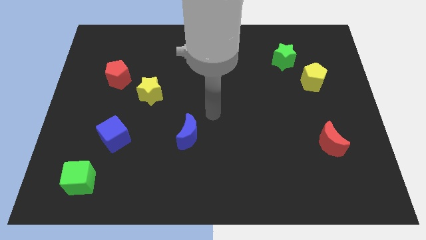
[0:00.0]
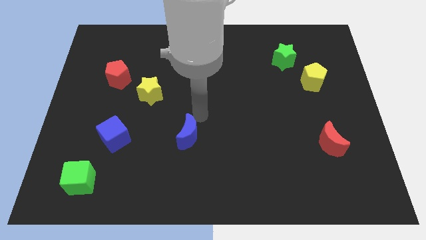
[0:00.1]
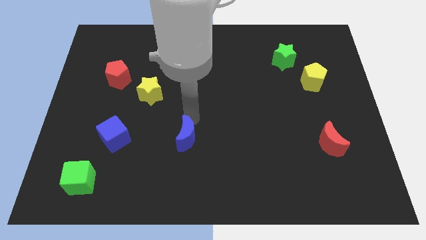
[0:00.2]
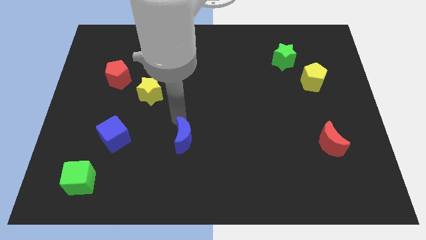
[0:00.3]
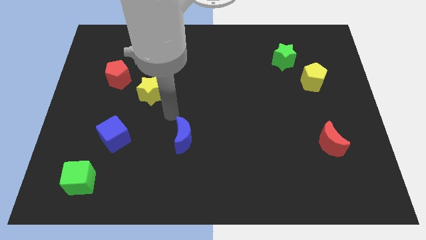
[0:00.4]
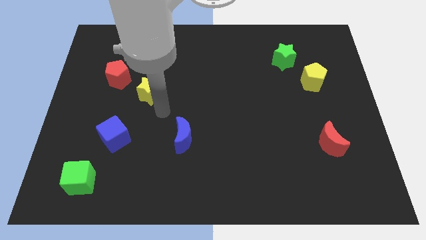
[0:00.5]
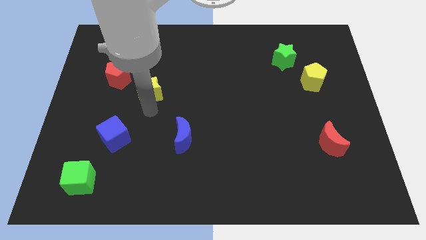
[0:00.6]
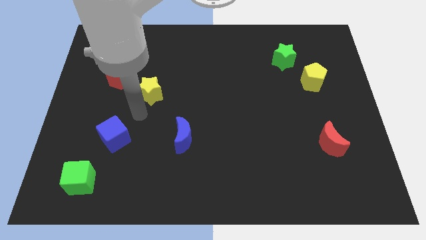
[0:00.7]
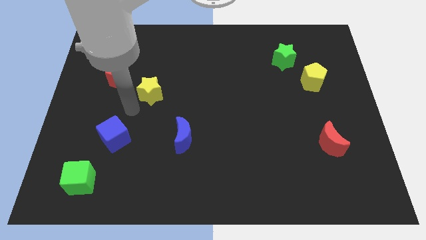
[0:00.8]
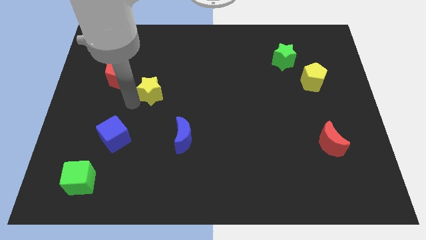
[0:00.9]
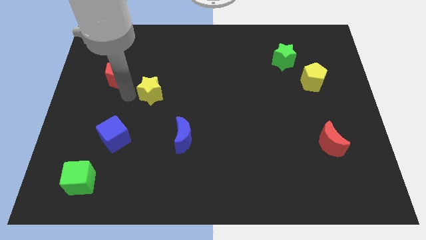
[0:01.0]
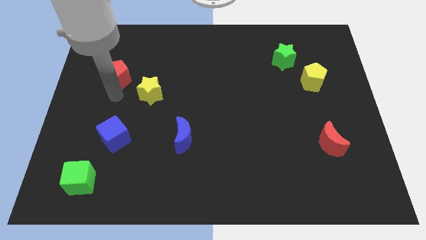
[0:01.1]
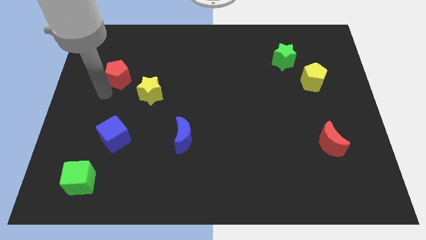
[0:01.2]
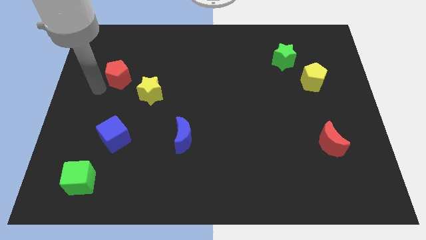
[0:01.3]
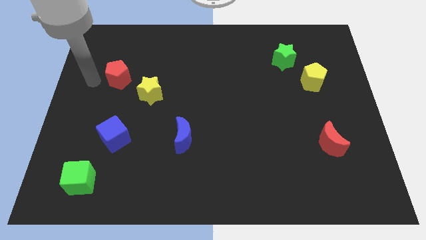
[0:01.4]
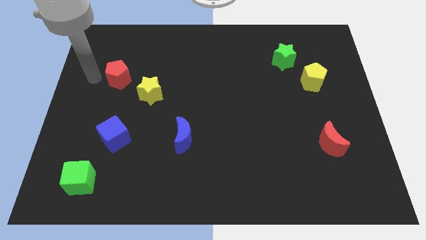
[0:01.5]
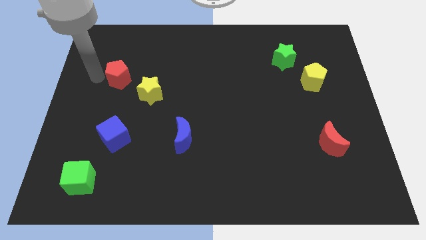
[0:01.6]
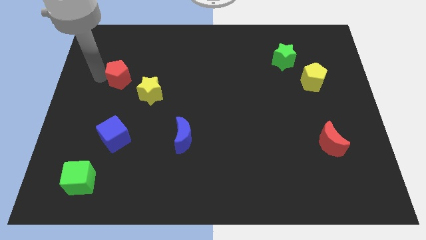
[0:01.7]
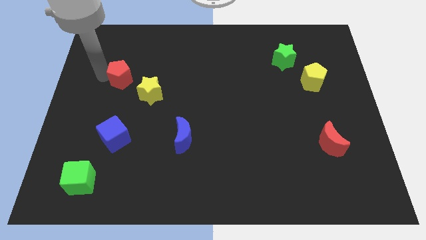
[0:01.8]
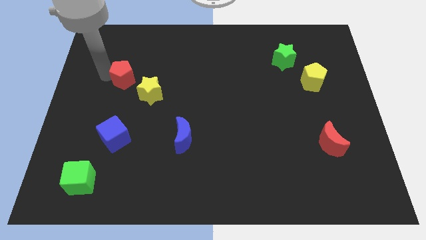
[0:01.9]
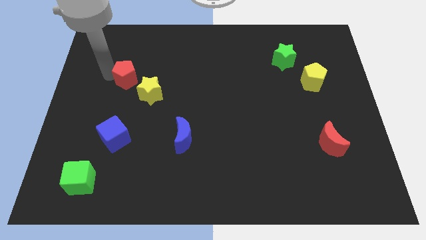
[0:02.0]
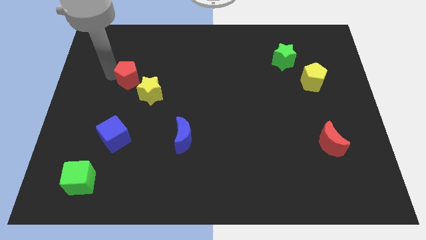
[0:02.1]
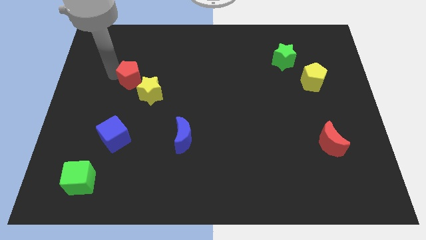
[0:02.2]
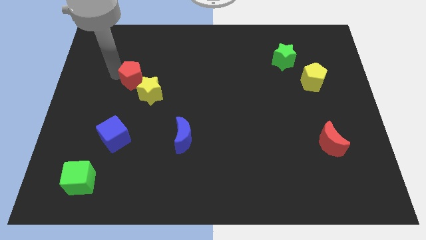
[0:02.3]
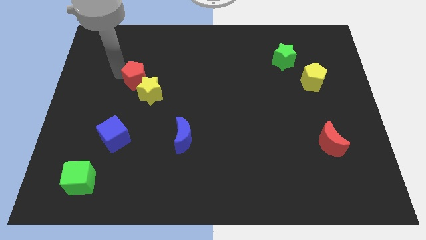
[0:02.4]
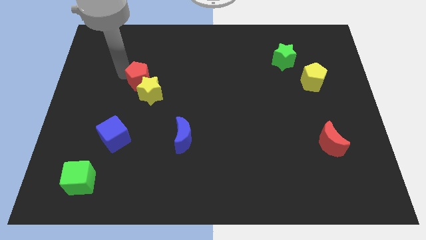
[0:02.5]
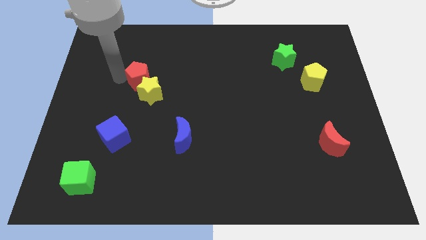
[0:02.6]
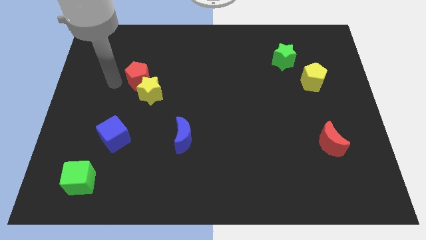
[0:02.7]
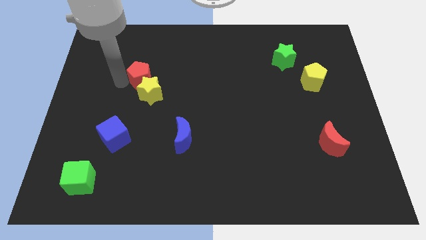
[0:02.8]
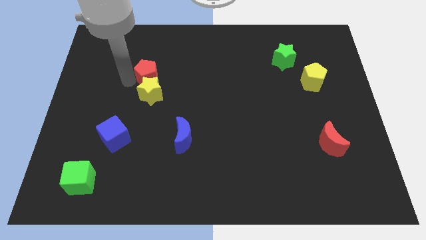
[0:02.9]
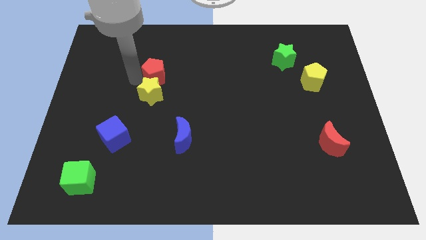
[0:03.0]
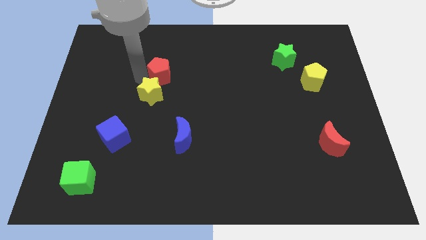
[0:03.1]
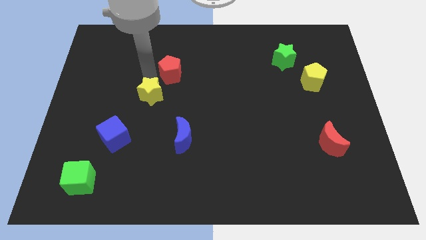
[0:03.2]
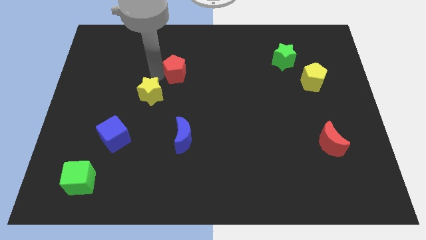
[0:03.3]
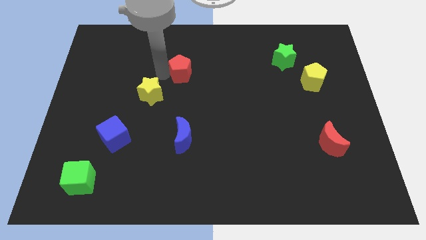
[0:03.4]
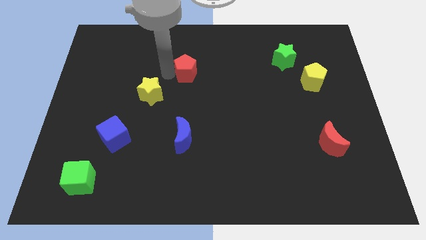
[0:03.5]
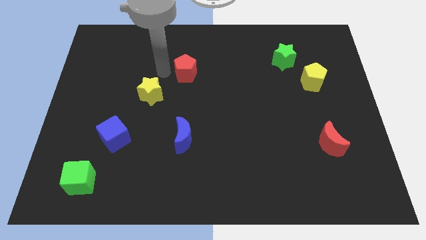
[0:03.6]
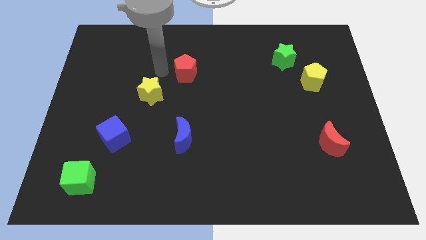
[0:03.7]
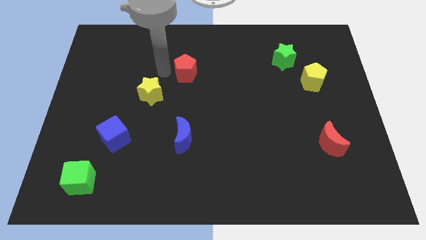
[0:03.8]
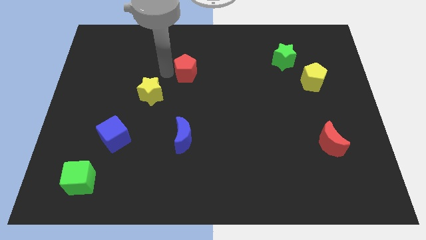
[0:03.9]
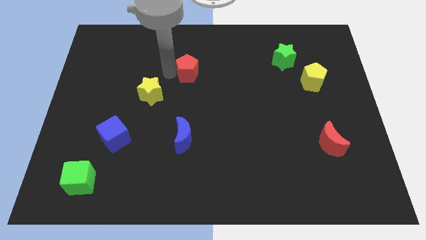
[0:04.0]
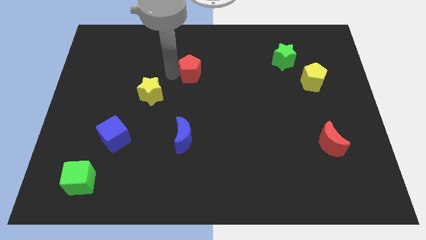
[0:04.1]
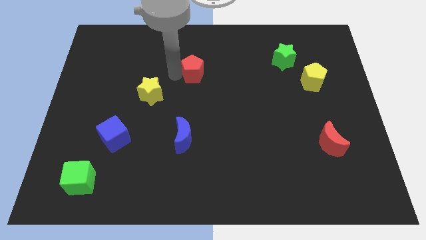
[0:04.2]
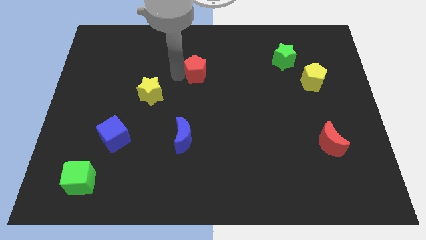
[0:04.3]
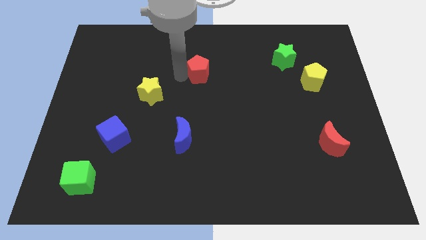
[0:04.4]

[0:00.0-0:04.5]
slide the red pentagon right

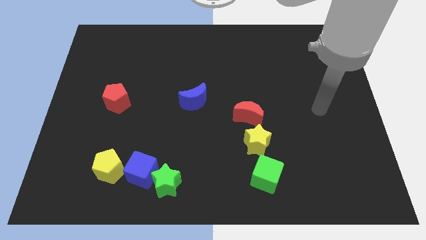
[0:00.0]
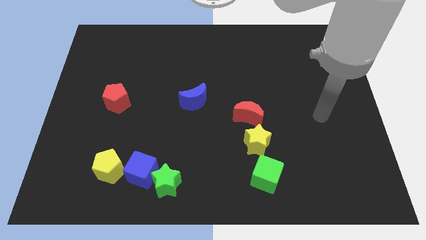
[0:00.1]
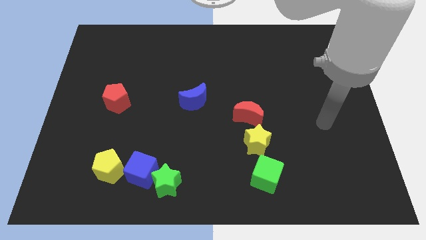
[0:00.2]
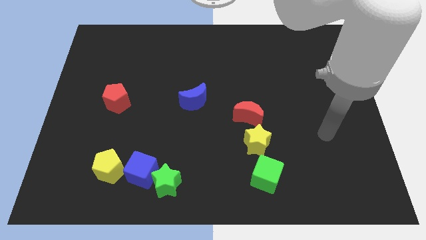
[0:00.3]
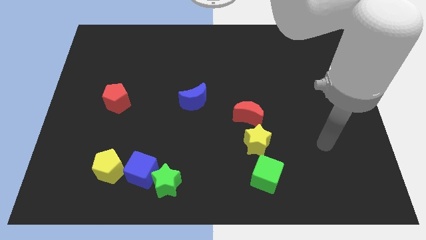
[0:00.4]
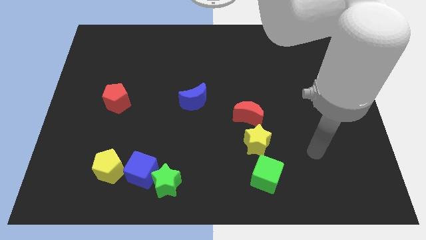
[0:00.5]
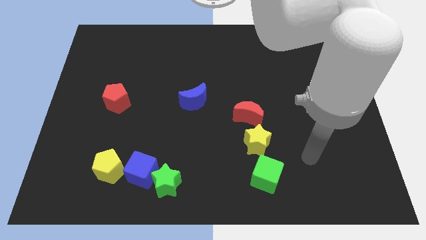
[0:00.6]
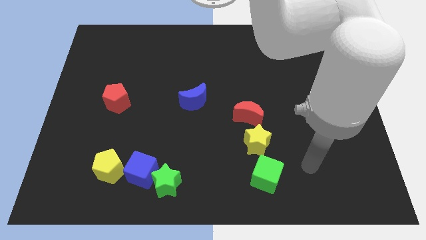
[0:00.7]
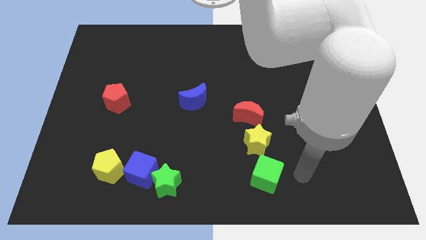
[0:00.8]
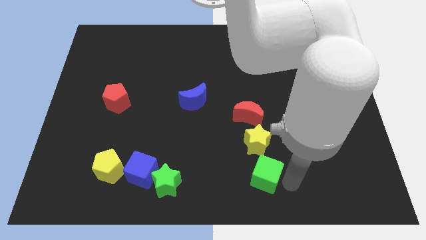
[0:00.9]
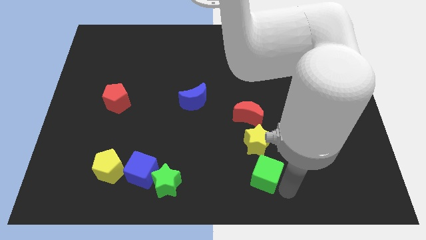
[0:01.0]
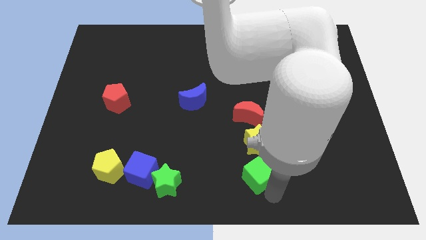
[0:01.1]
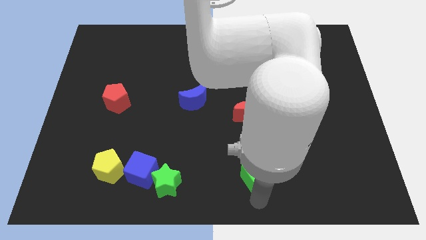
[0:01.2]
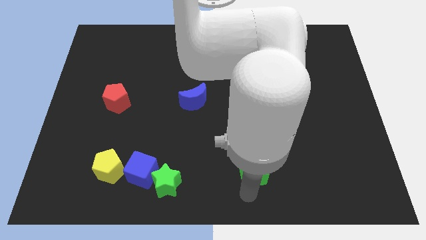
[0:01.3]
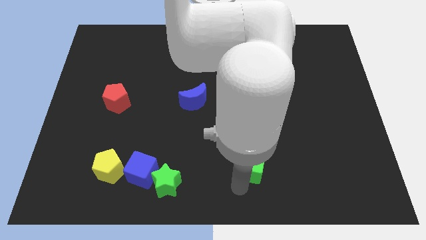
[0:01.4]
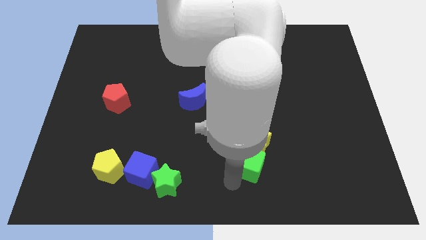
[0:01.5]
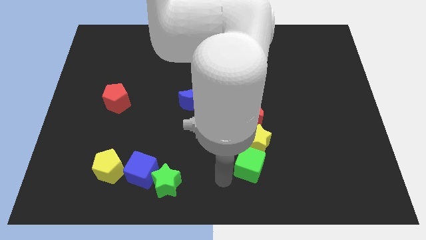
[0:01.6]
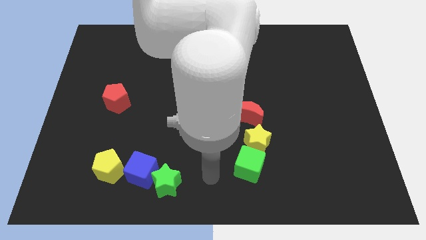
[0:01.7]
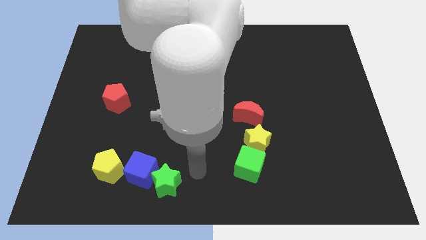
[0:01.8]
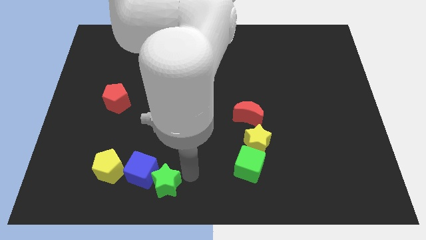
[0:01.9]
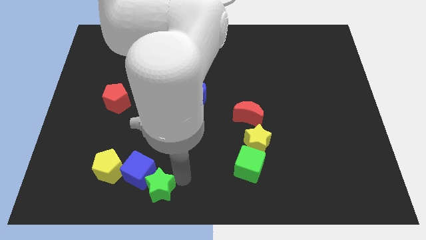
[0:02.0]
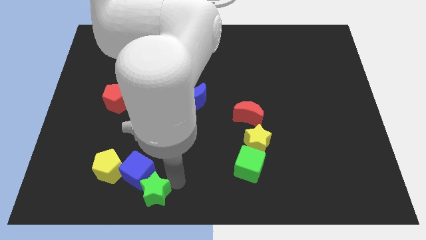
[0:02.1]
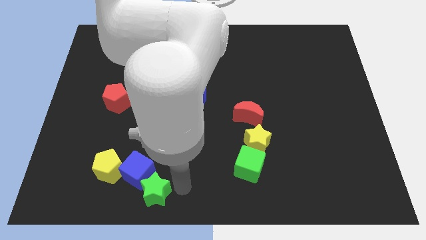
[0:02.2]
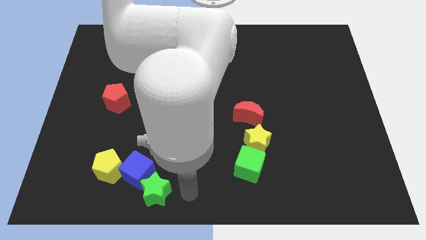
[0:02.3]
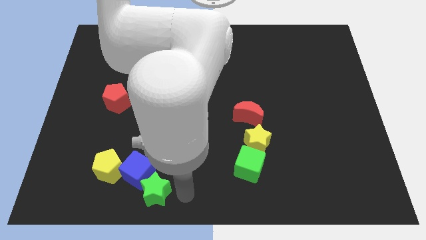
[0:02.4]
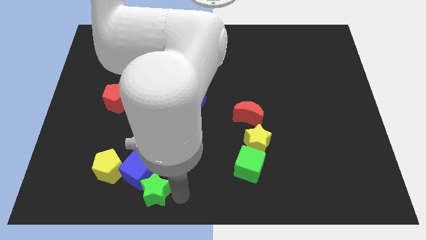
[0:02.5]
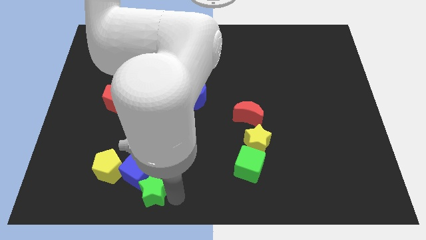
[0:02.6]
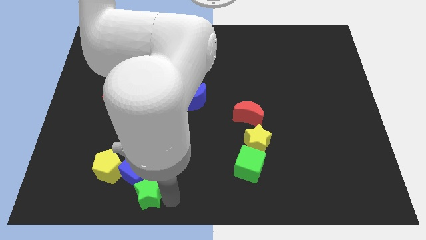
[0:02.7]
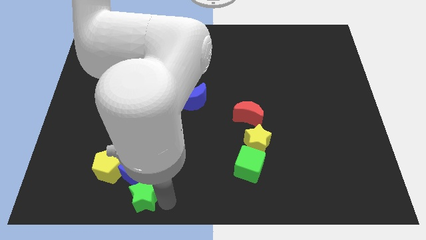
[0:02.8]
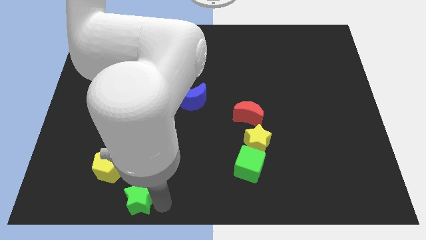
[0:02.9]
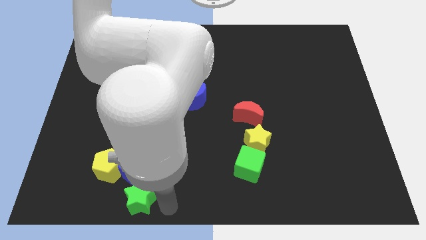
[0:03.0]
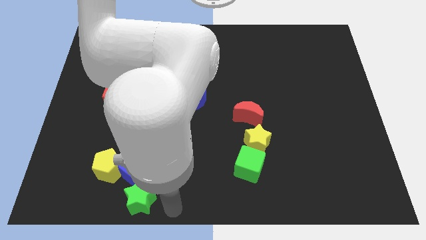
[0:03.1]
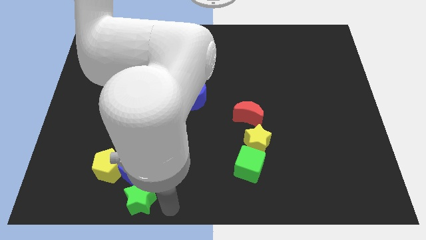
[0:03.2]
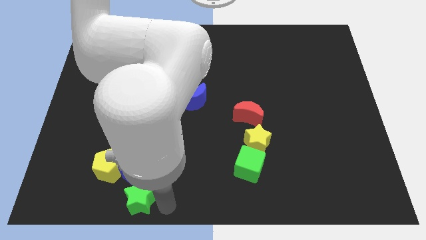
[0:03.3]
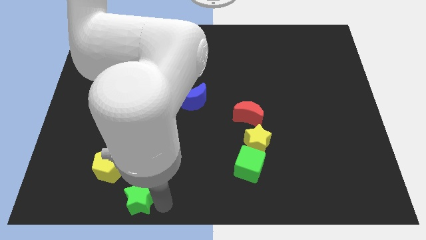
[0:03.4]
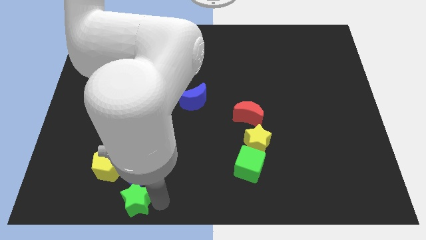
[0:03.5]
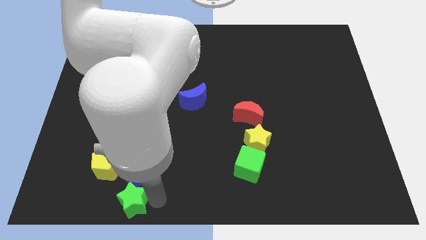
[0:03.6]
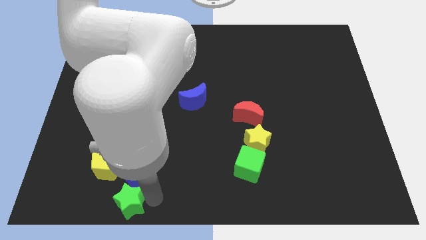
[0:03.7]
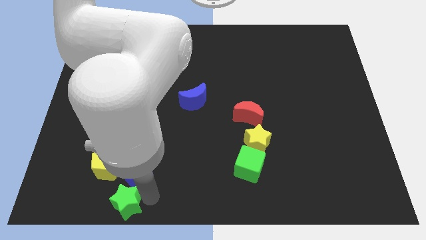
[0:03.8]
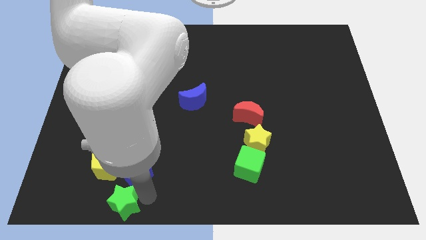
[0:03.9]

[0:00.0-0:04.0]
push the green star a bit left
